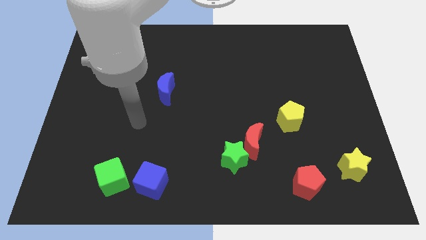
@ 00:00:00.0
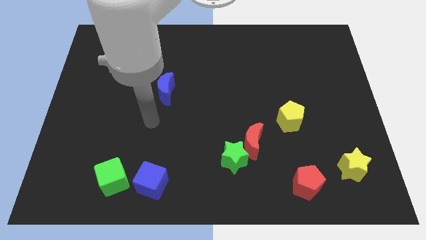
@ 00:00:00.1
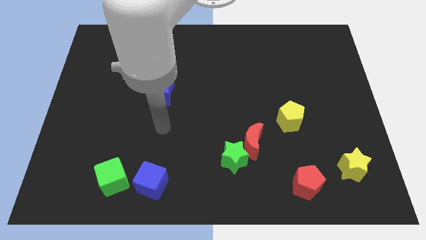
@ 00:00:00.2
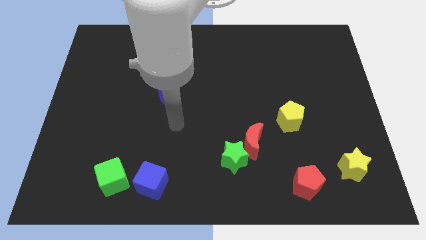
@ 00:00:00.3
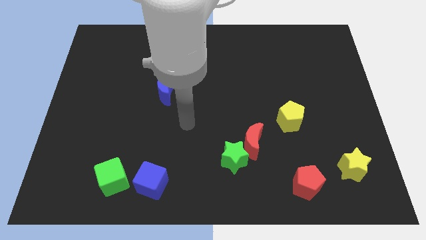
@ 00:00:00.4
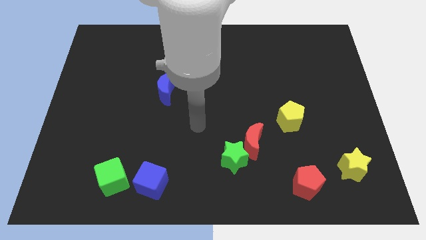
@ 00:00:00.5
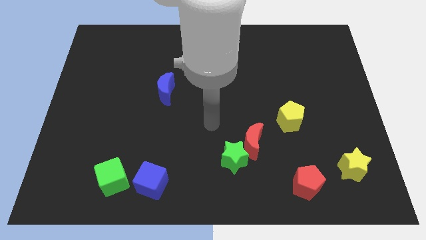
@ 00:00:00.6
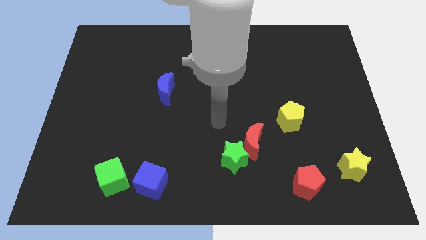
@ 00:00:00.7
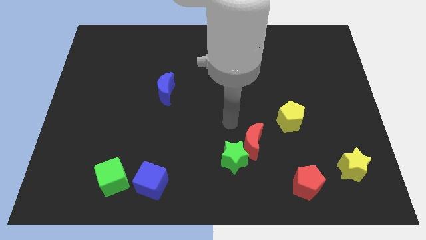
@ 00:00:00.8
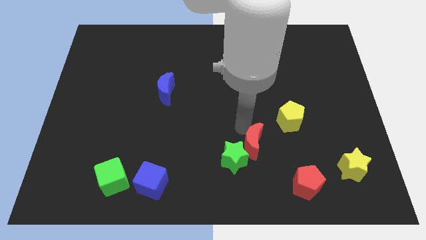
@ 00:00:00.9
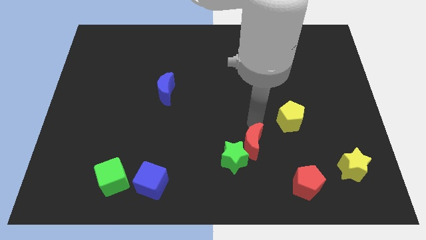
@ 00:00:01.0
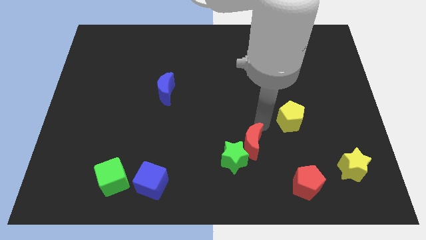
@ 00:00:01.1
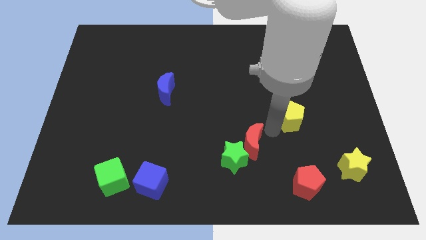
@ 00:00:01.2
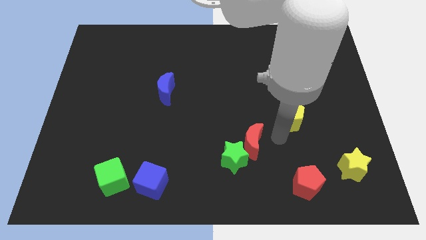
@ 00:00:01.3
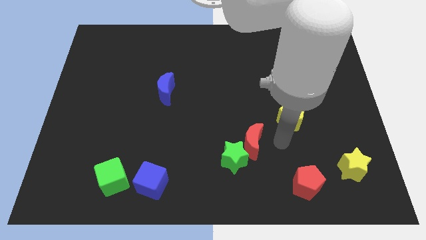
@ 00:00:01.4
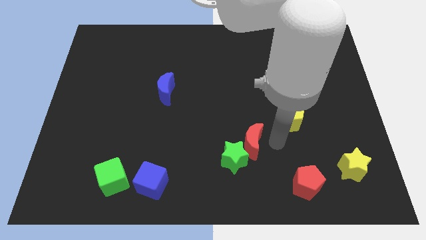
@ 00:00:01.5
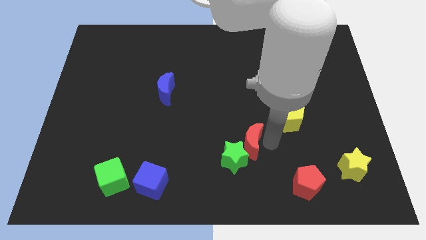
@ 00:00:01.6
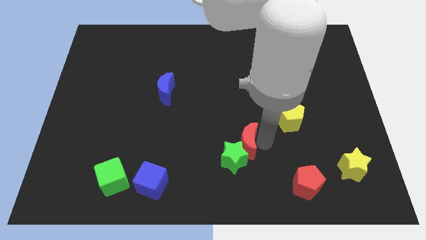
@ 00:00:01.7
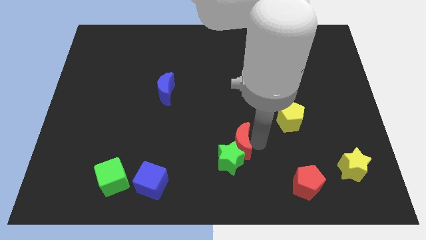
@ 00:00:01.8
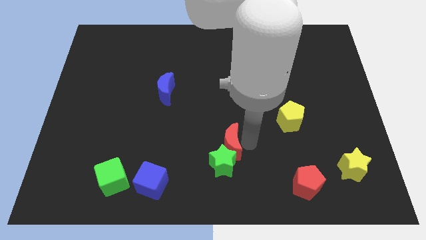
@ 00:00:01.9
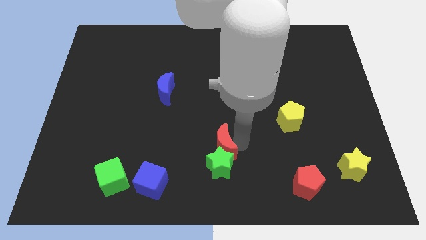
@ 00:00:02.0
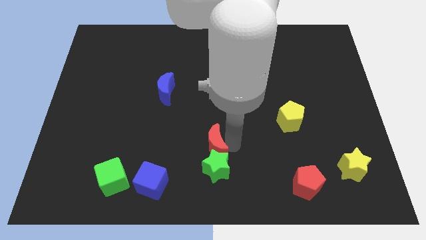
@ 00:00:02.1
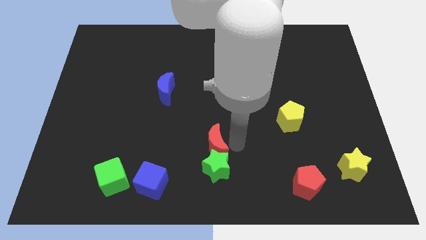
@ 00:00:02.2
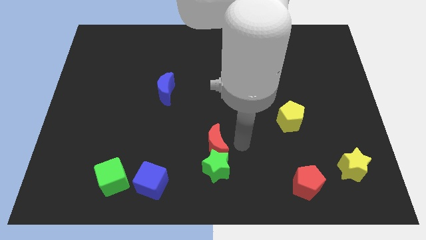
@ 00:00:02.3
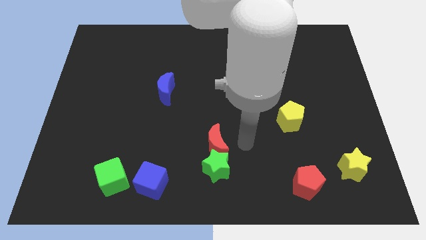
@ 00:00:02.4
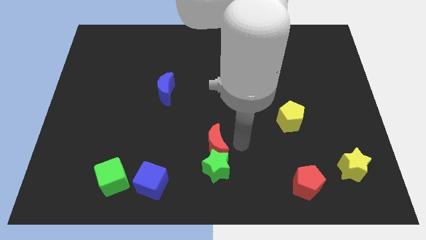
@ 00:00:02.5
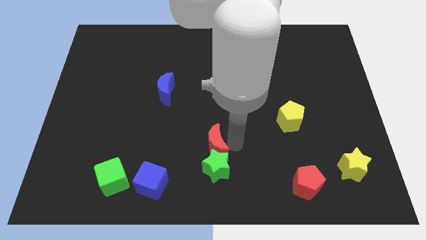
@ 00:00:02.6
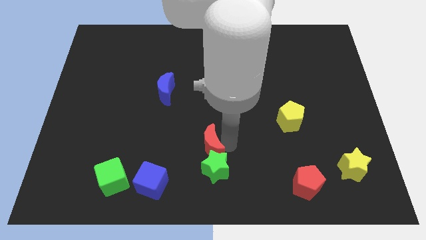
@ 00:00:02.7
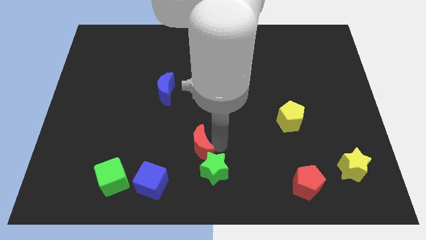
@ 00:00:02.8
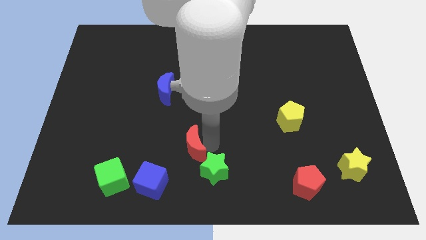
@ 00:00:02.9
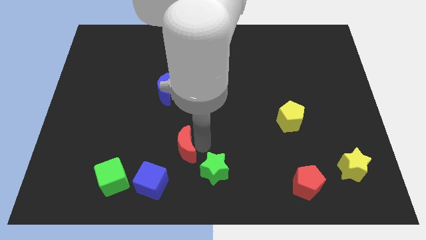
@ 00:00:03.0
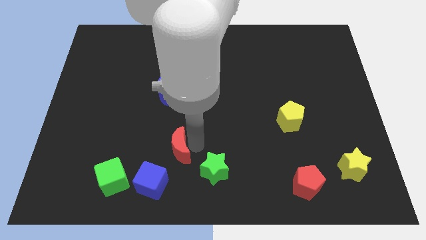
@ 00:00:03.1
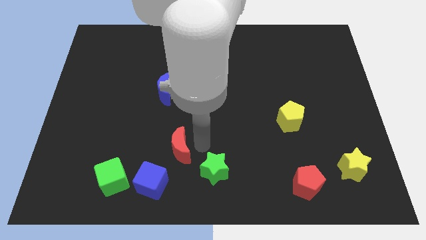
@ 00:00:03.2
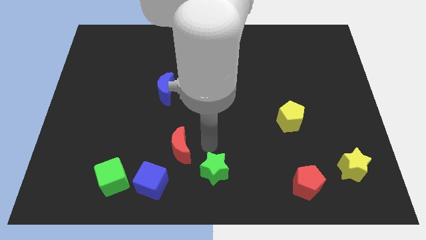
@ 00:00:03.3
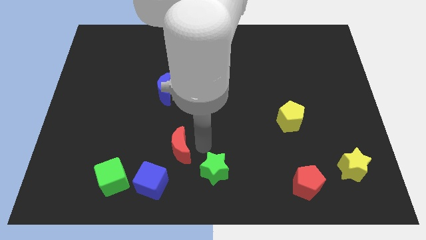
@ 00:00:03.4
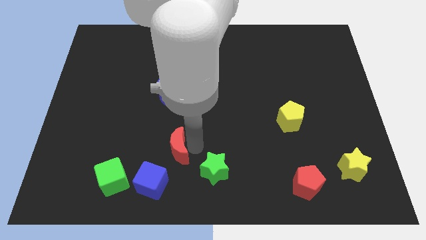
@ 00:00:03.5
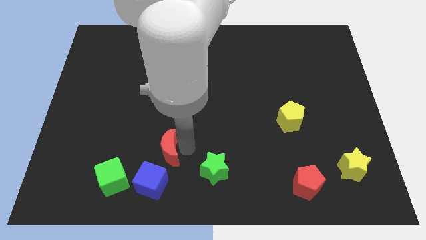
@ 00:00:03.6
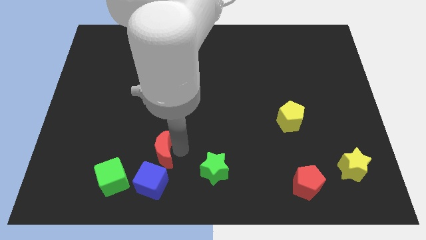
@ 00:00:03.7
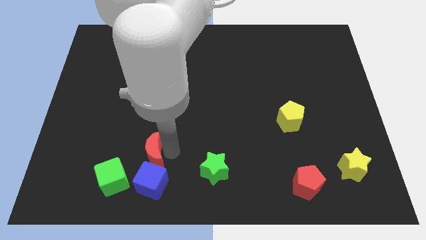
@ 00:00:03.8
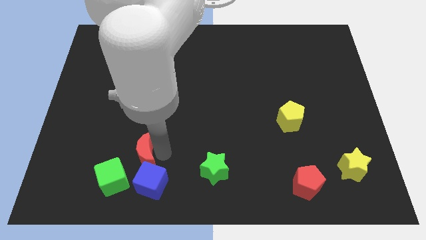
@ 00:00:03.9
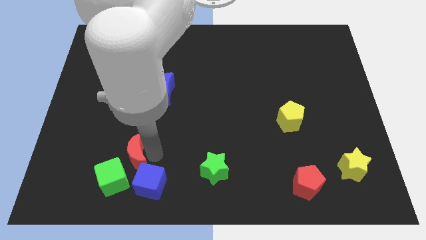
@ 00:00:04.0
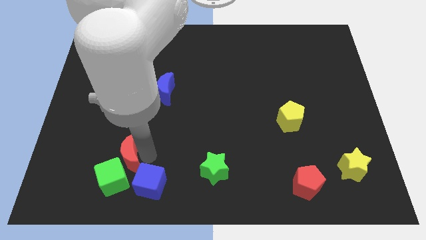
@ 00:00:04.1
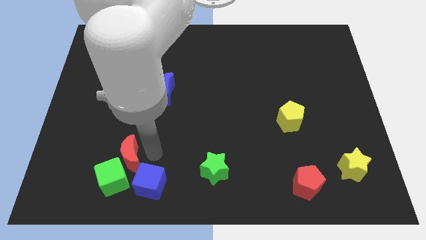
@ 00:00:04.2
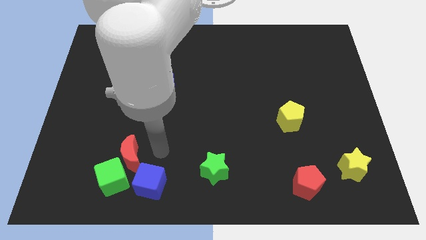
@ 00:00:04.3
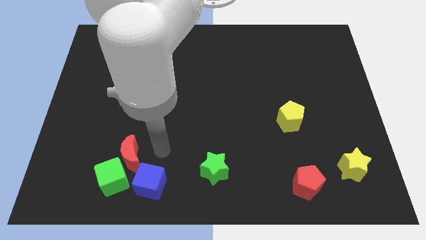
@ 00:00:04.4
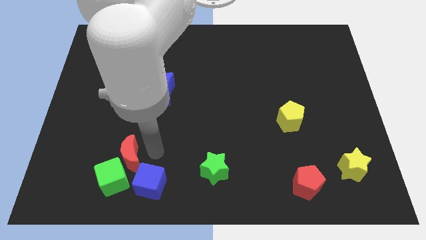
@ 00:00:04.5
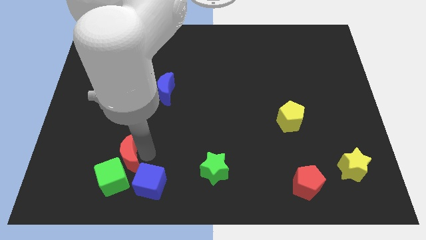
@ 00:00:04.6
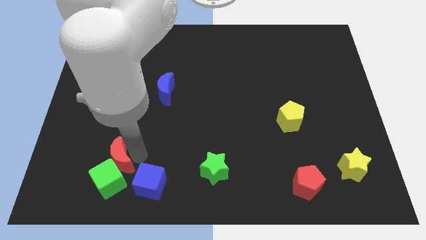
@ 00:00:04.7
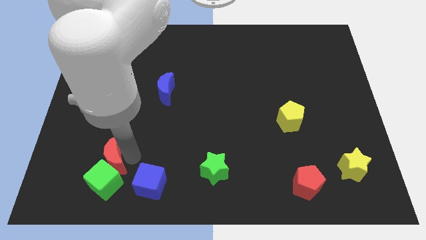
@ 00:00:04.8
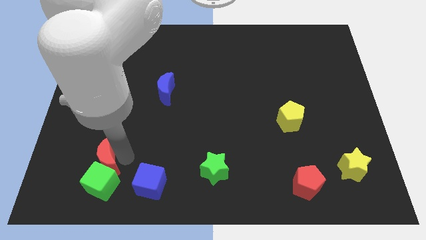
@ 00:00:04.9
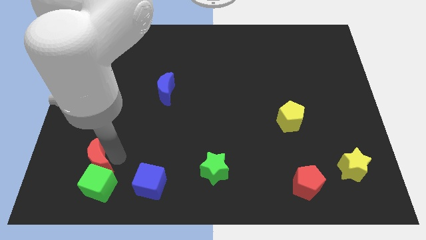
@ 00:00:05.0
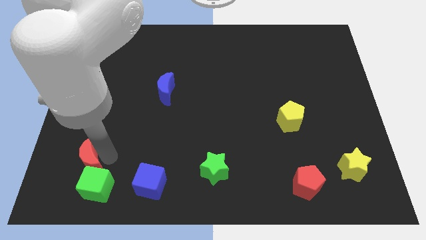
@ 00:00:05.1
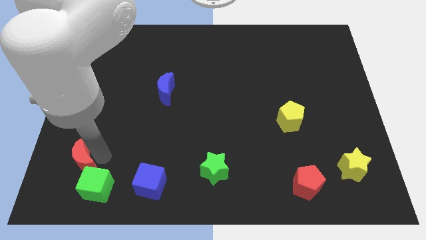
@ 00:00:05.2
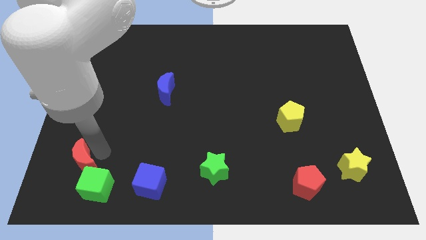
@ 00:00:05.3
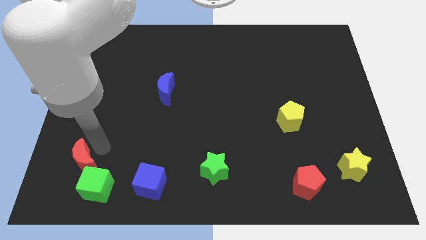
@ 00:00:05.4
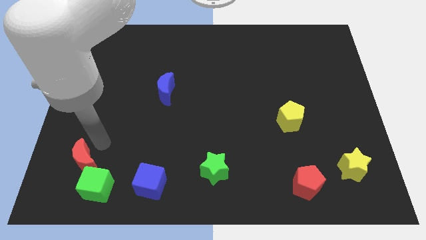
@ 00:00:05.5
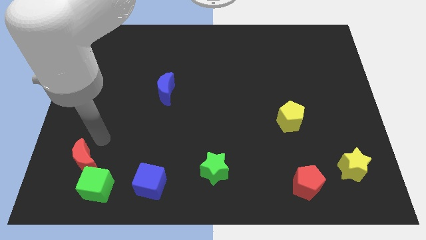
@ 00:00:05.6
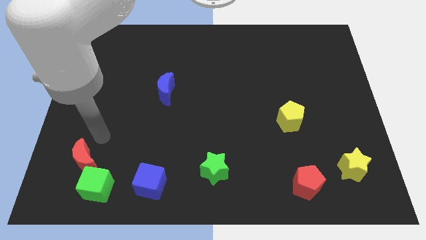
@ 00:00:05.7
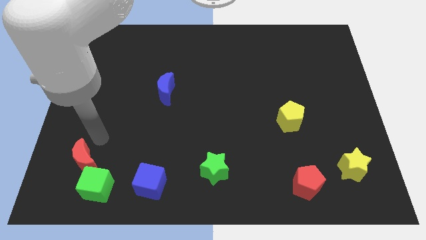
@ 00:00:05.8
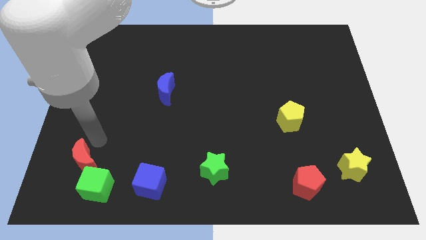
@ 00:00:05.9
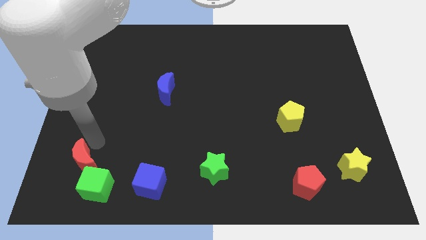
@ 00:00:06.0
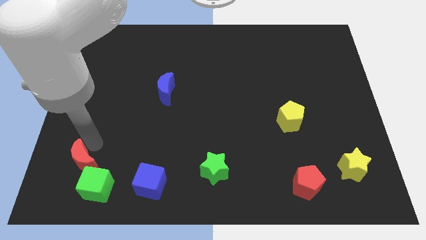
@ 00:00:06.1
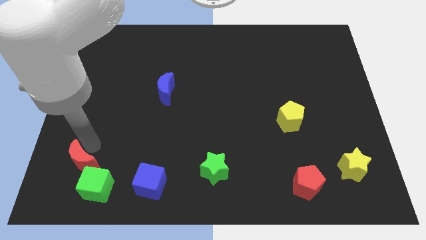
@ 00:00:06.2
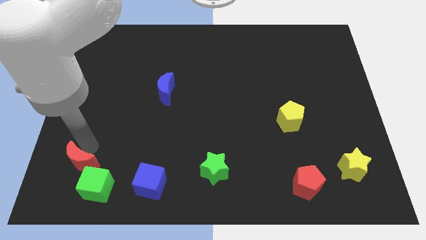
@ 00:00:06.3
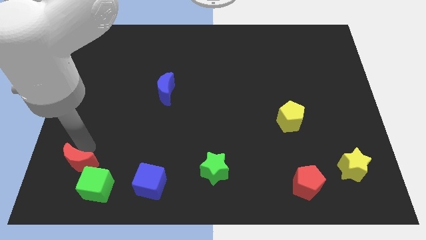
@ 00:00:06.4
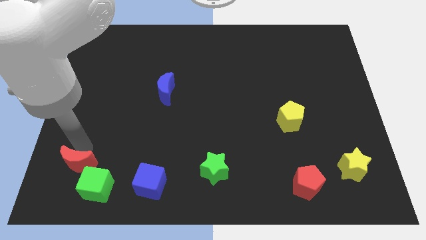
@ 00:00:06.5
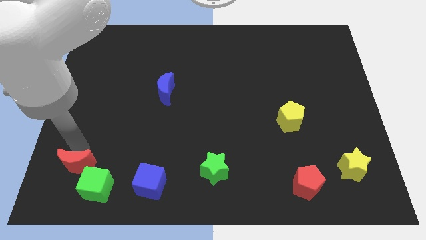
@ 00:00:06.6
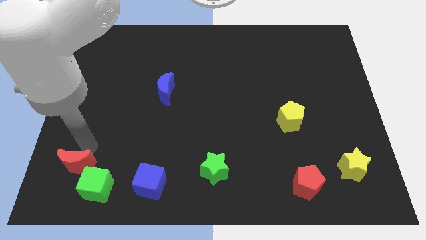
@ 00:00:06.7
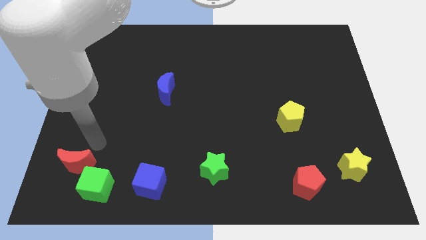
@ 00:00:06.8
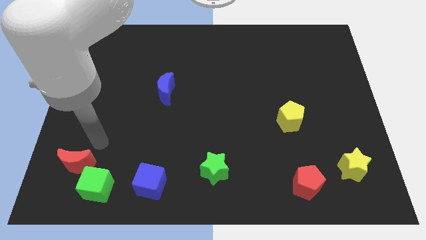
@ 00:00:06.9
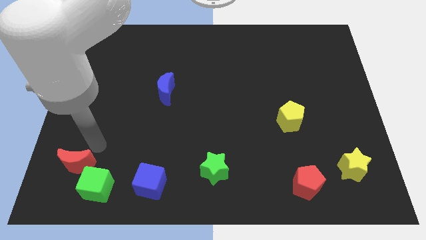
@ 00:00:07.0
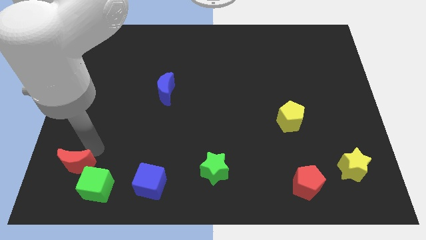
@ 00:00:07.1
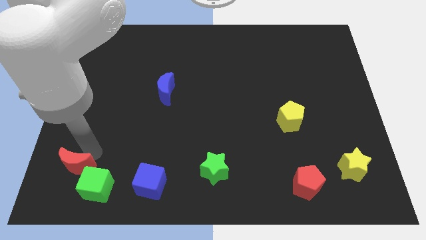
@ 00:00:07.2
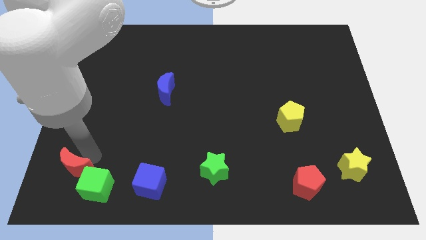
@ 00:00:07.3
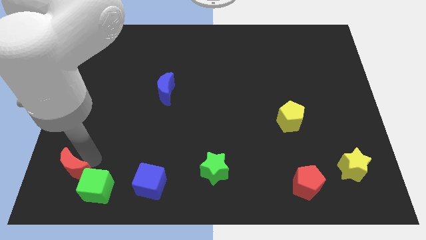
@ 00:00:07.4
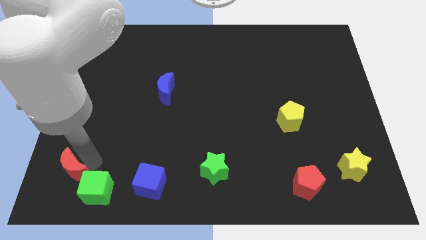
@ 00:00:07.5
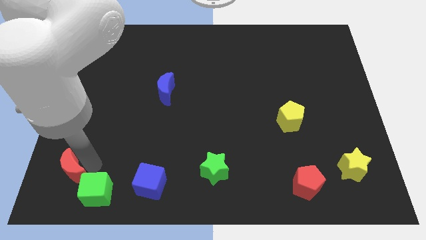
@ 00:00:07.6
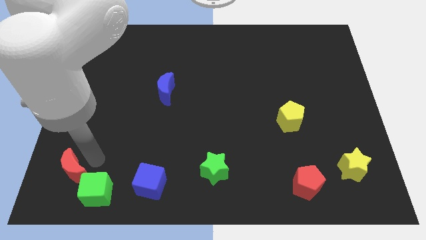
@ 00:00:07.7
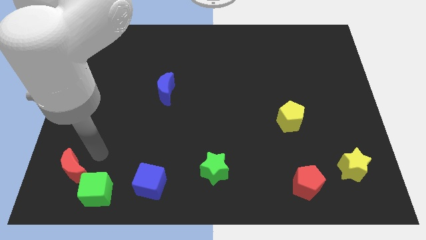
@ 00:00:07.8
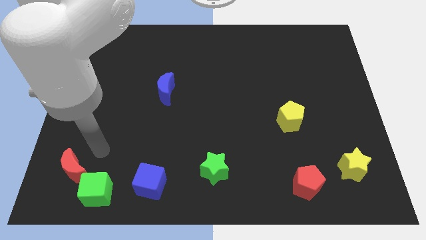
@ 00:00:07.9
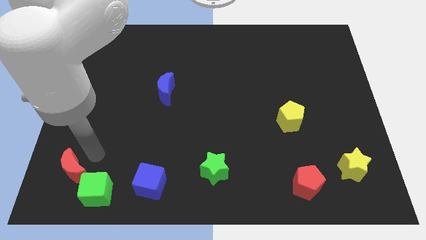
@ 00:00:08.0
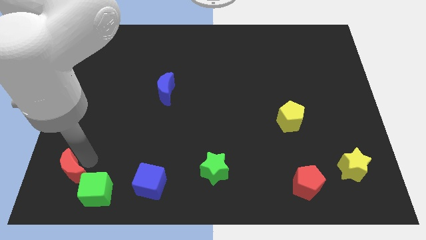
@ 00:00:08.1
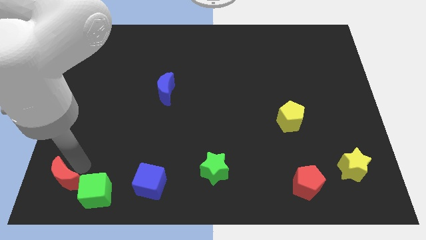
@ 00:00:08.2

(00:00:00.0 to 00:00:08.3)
push the red moon to the bottom left corner
